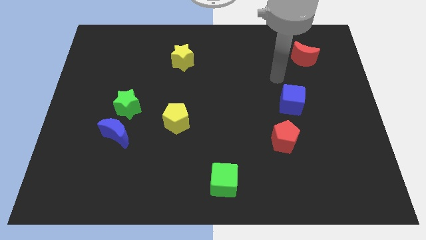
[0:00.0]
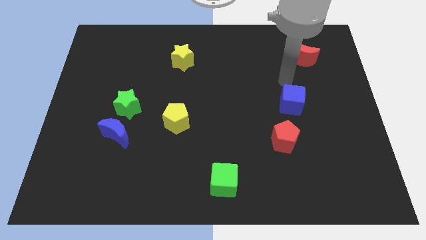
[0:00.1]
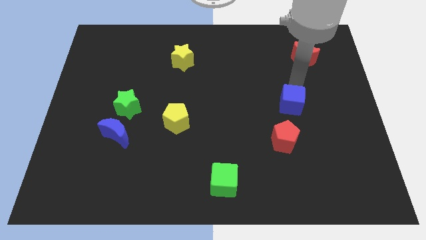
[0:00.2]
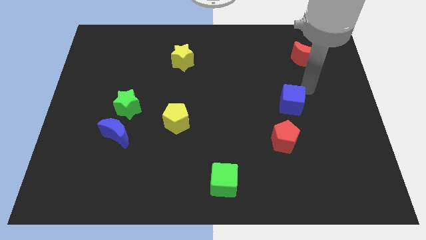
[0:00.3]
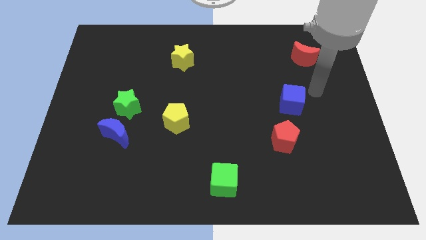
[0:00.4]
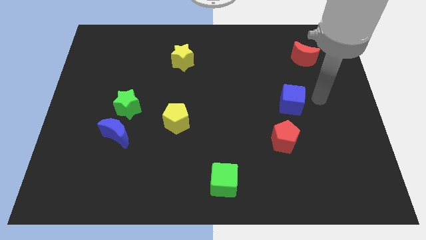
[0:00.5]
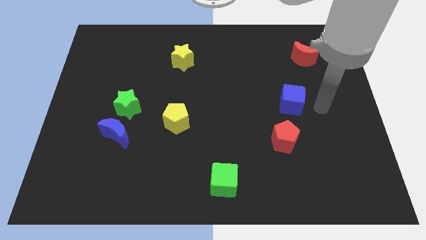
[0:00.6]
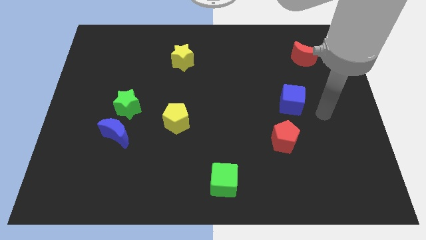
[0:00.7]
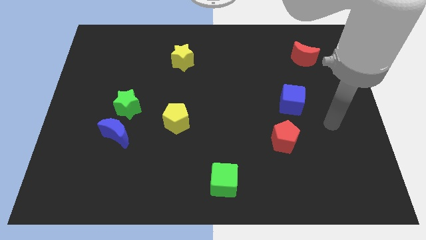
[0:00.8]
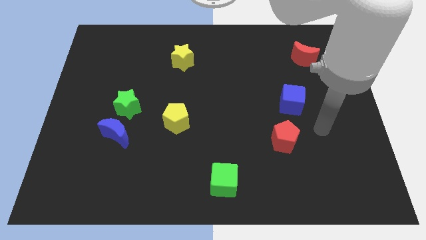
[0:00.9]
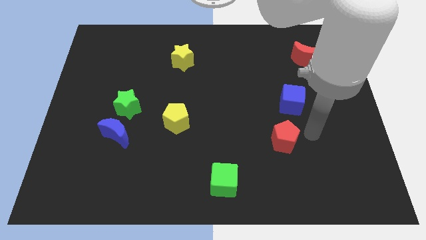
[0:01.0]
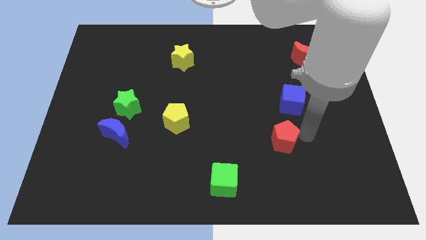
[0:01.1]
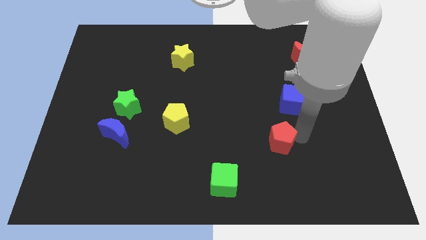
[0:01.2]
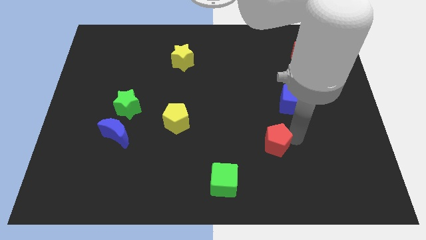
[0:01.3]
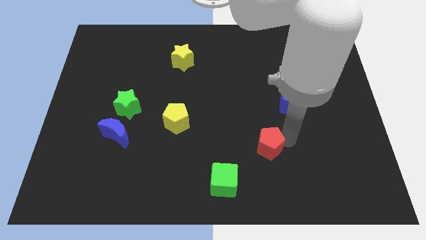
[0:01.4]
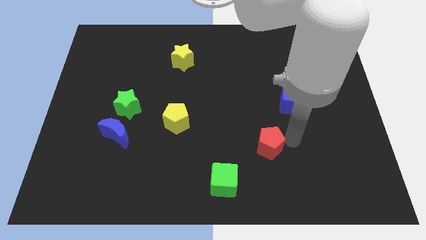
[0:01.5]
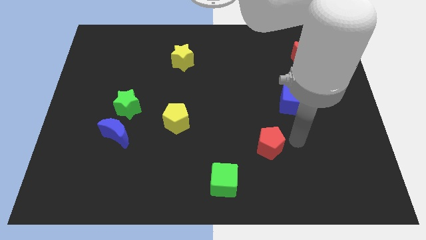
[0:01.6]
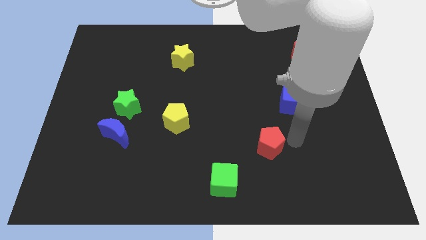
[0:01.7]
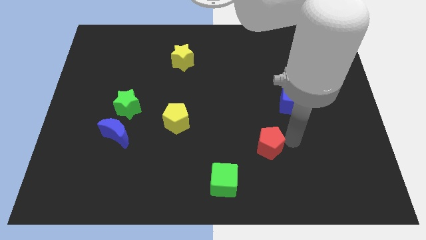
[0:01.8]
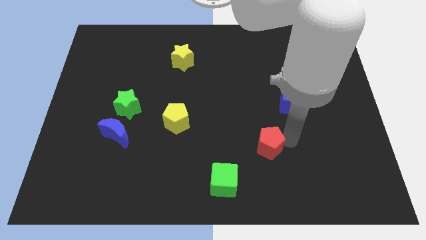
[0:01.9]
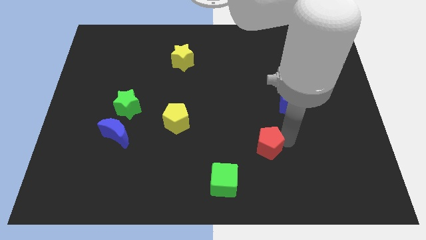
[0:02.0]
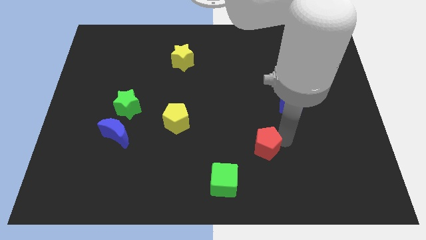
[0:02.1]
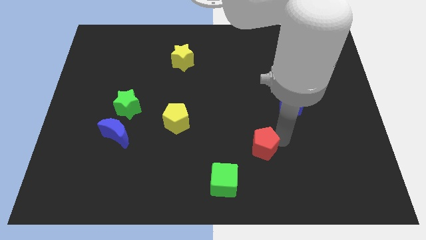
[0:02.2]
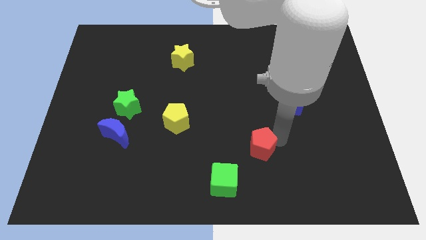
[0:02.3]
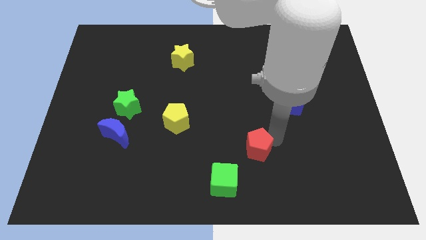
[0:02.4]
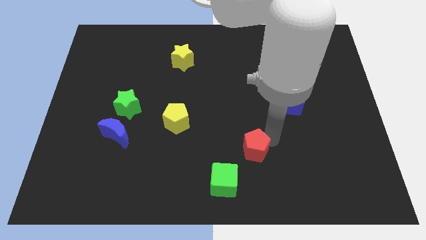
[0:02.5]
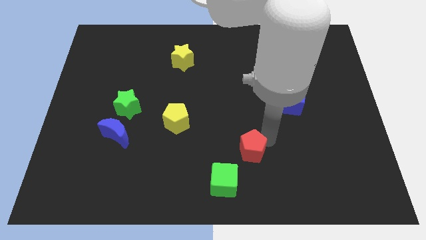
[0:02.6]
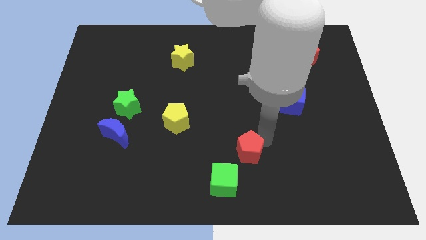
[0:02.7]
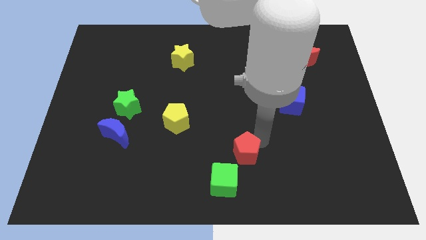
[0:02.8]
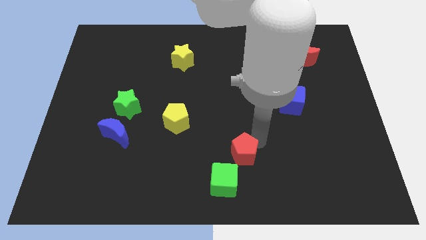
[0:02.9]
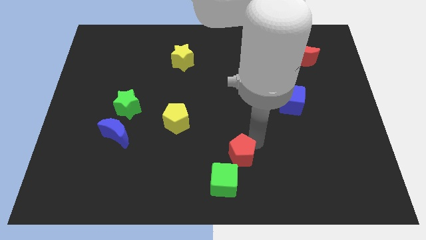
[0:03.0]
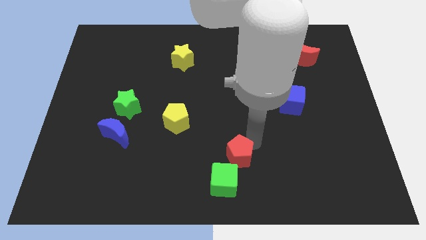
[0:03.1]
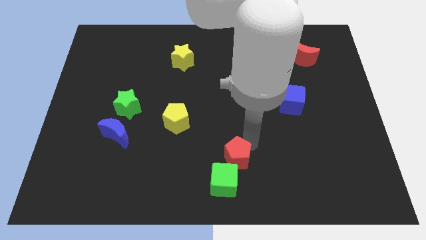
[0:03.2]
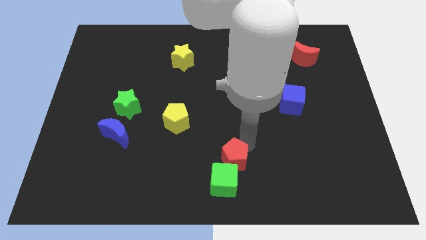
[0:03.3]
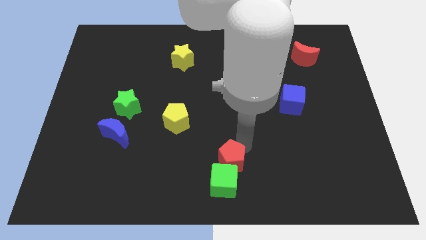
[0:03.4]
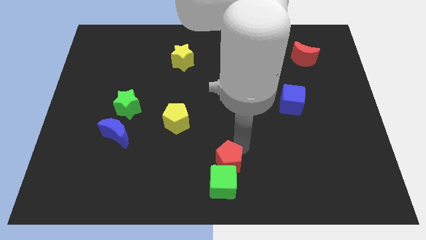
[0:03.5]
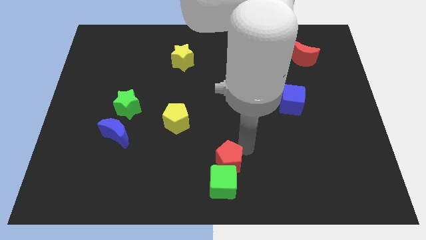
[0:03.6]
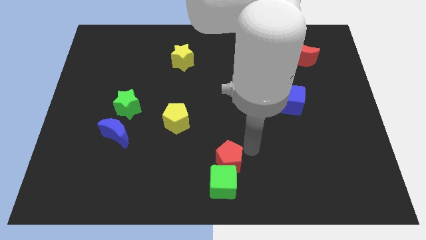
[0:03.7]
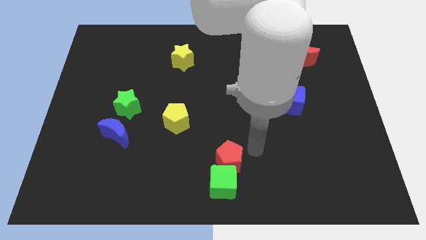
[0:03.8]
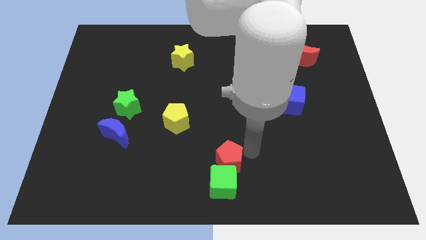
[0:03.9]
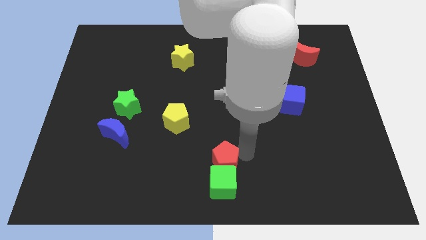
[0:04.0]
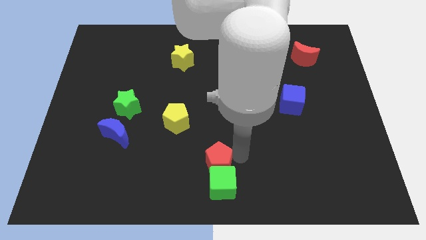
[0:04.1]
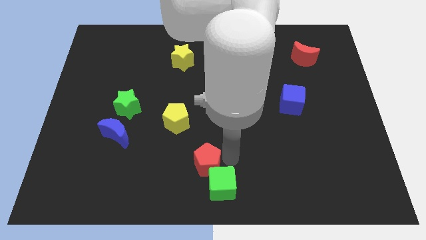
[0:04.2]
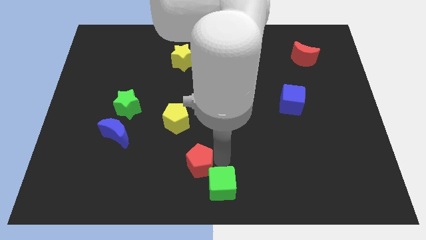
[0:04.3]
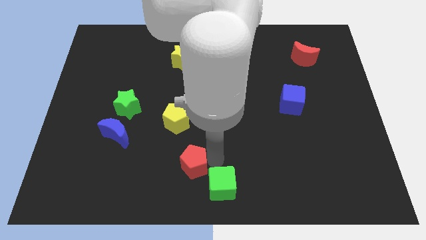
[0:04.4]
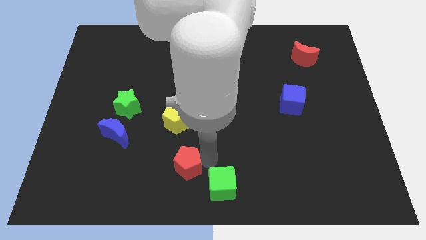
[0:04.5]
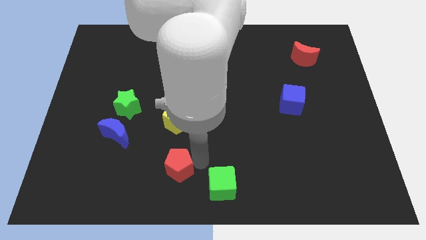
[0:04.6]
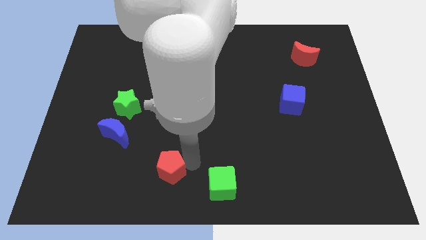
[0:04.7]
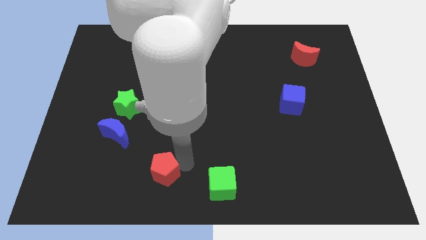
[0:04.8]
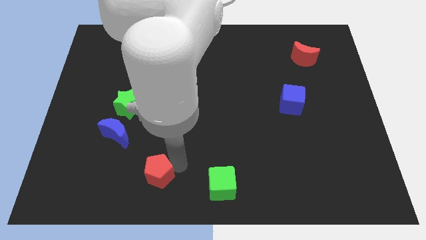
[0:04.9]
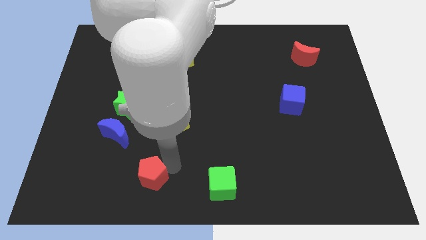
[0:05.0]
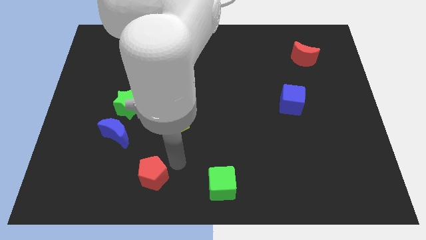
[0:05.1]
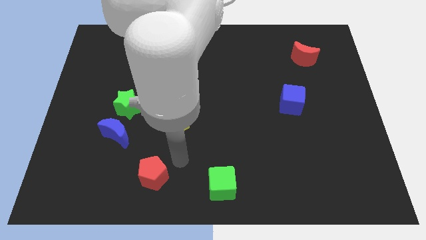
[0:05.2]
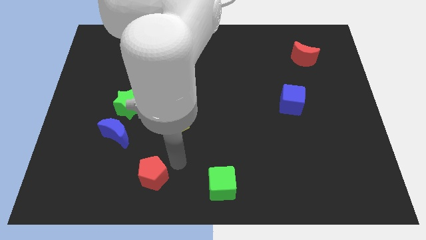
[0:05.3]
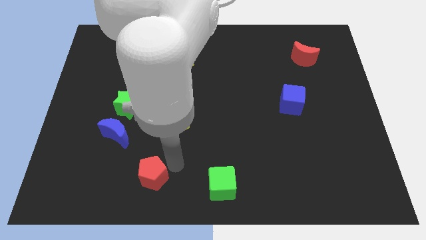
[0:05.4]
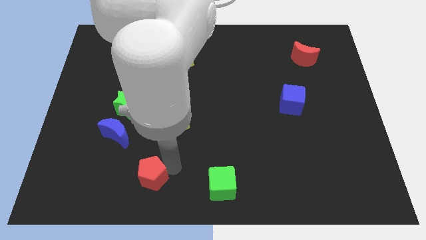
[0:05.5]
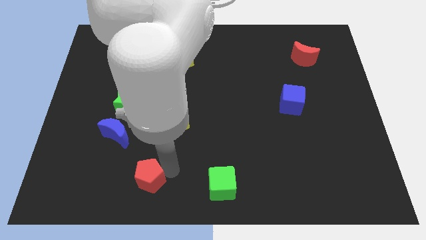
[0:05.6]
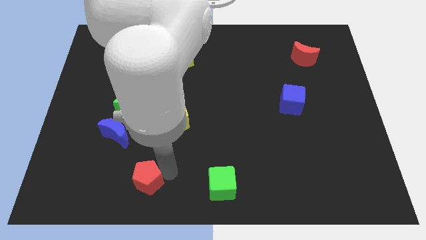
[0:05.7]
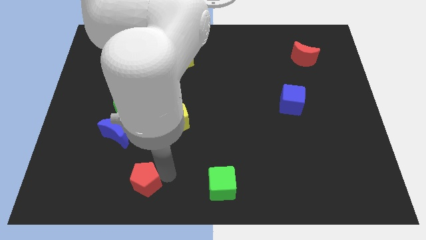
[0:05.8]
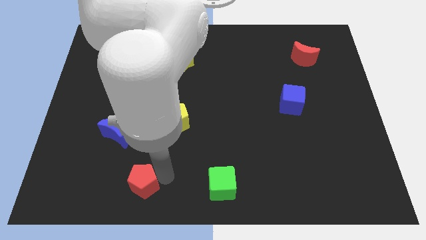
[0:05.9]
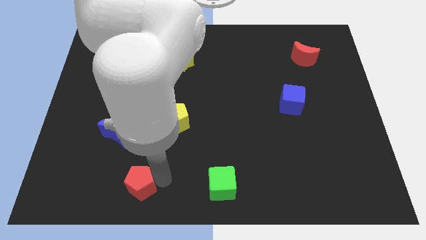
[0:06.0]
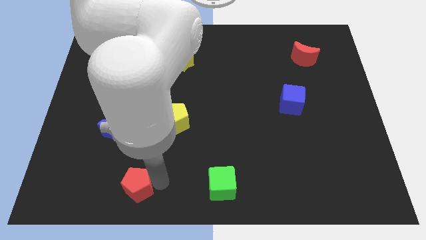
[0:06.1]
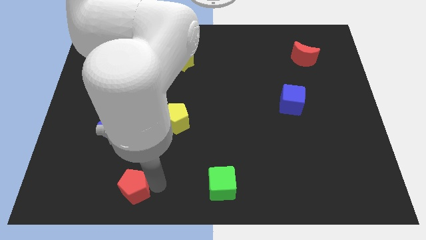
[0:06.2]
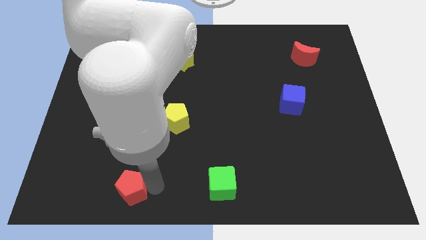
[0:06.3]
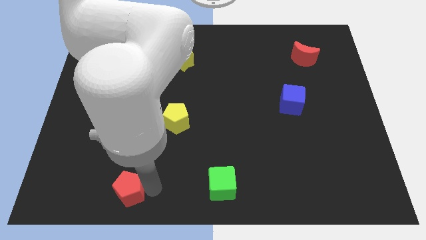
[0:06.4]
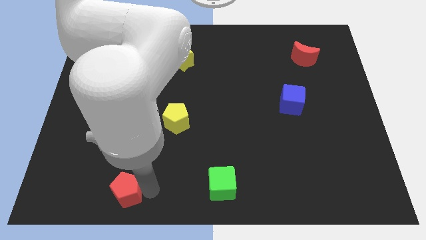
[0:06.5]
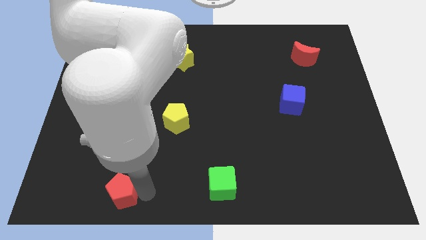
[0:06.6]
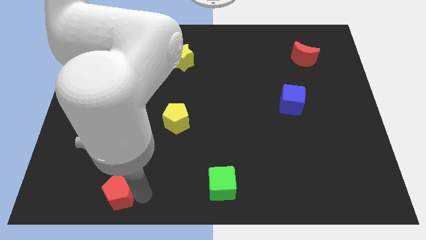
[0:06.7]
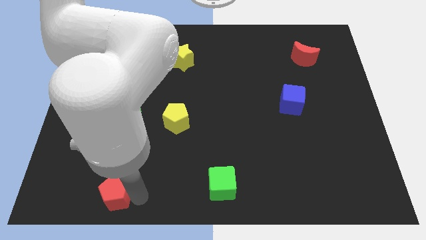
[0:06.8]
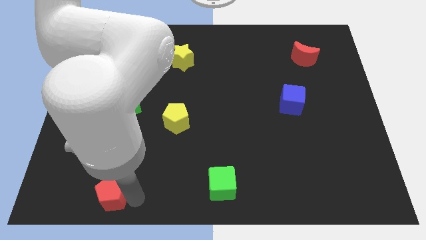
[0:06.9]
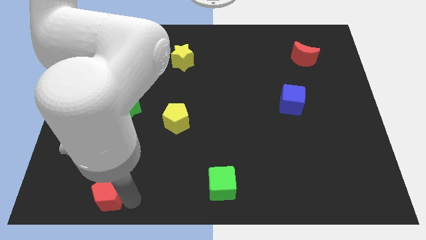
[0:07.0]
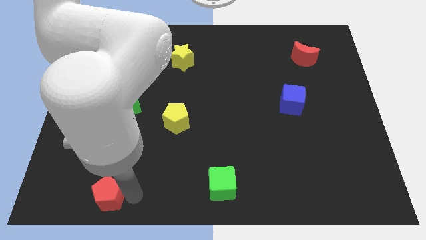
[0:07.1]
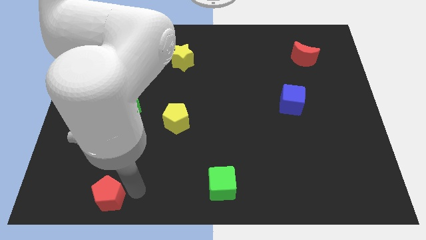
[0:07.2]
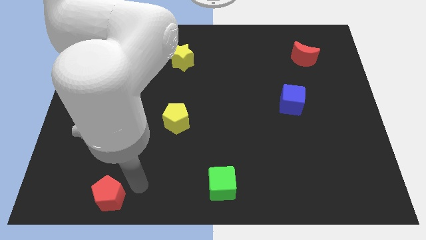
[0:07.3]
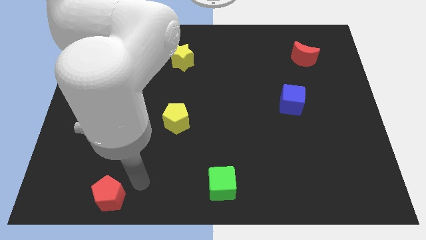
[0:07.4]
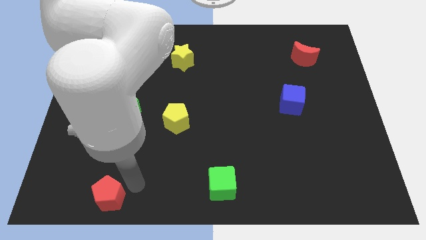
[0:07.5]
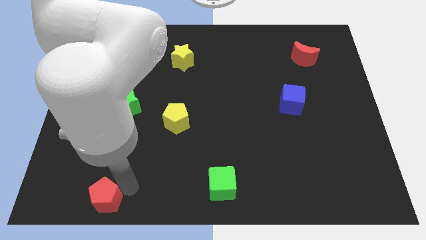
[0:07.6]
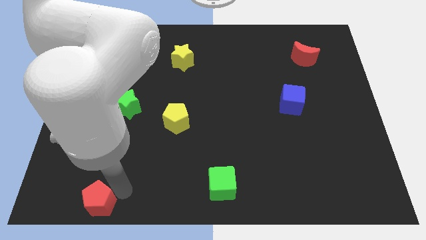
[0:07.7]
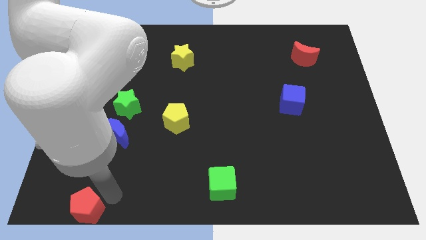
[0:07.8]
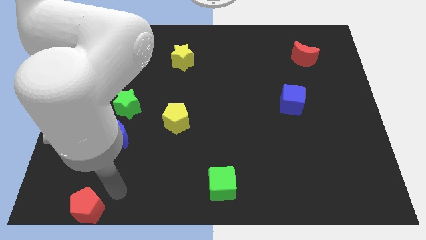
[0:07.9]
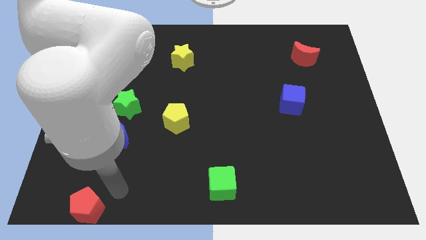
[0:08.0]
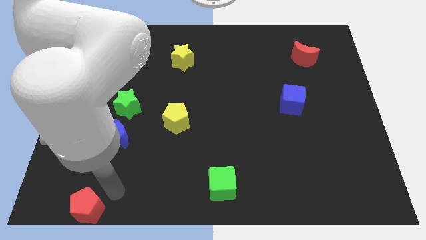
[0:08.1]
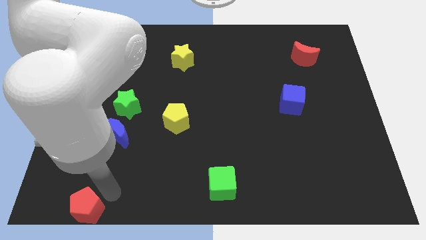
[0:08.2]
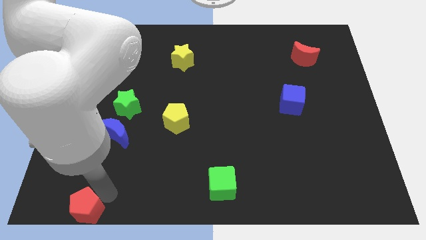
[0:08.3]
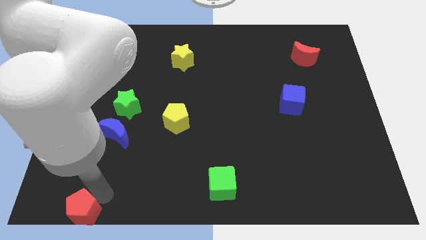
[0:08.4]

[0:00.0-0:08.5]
put the red pentagon to the bottom left of the board
